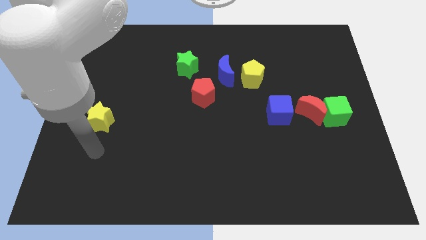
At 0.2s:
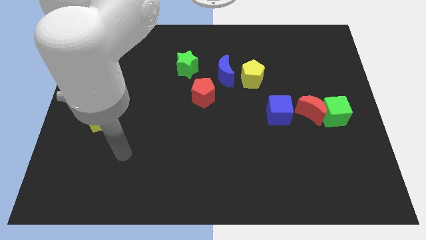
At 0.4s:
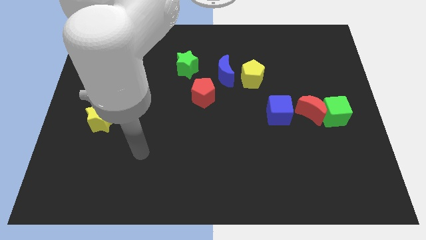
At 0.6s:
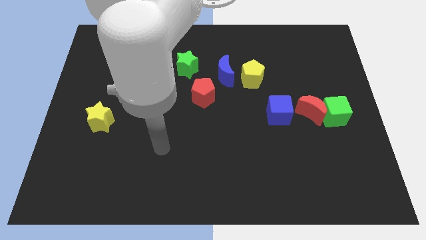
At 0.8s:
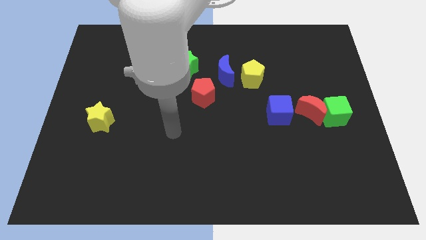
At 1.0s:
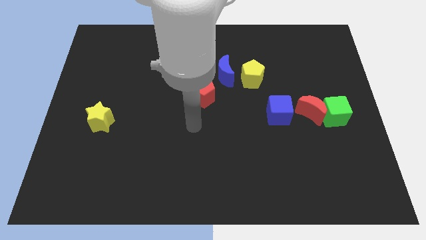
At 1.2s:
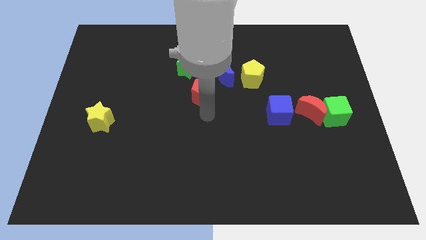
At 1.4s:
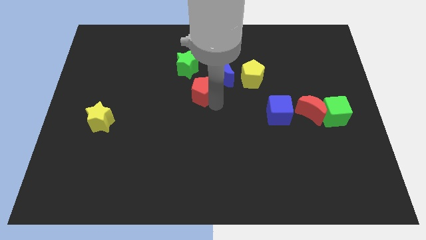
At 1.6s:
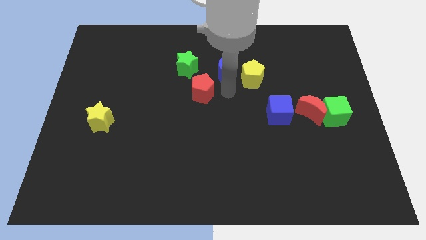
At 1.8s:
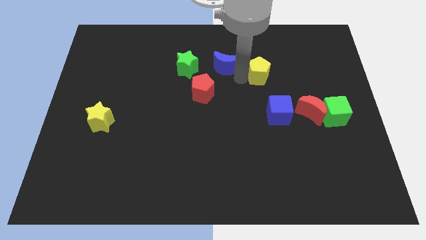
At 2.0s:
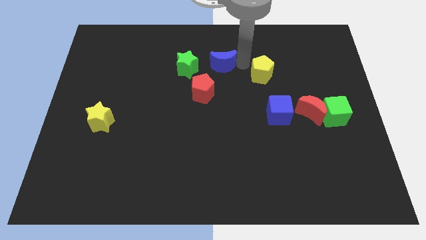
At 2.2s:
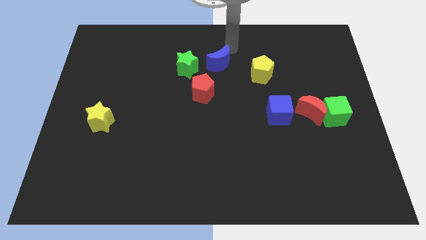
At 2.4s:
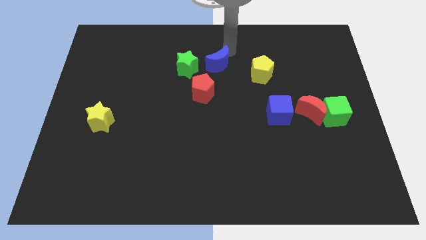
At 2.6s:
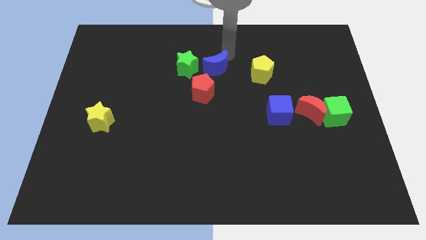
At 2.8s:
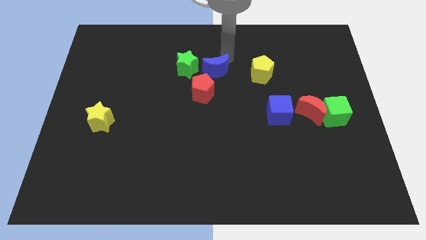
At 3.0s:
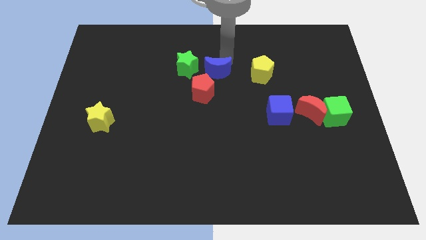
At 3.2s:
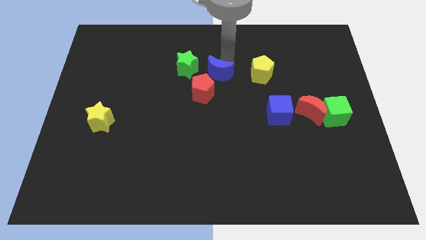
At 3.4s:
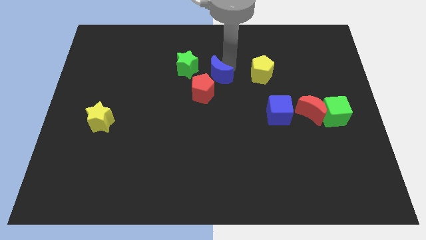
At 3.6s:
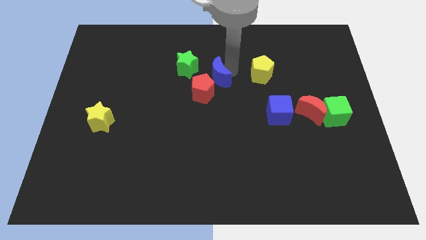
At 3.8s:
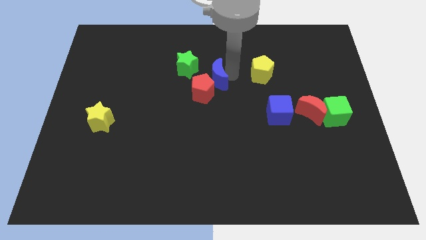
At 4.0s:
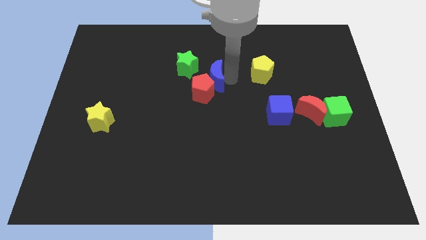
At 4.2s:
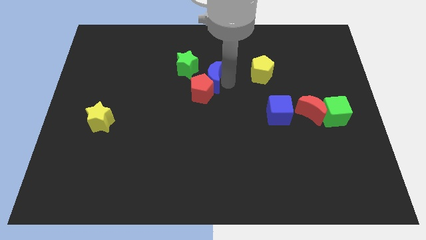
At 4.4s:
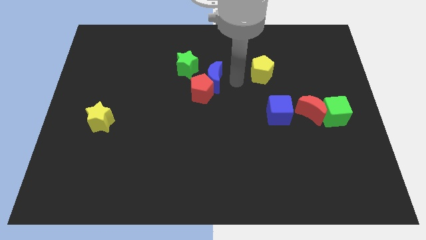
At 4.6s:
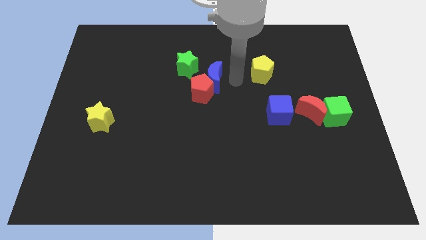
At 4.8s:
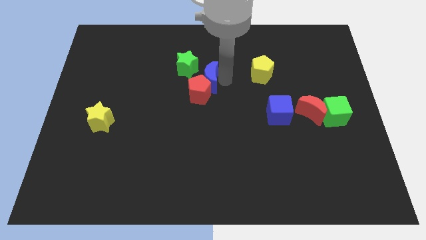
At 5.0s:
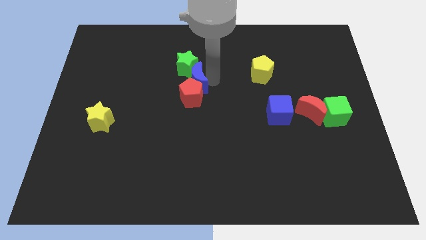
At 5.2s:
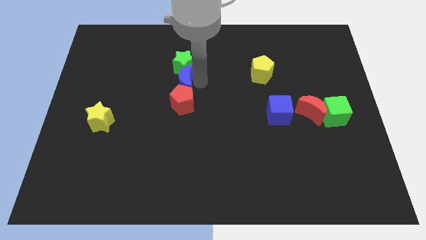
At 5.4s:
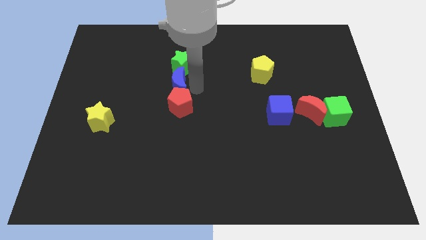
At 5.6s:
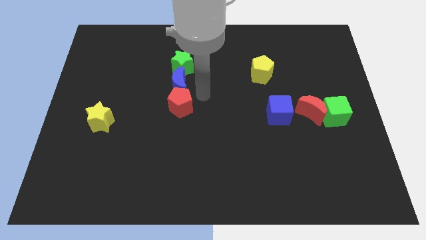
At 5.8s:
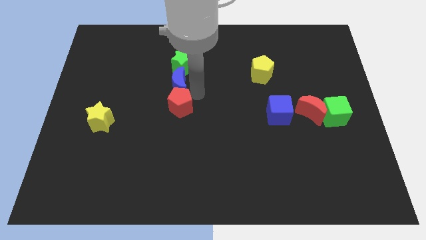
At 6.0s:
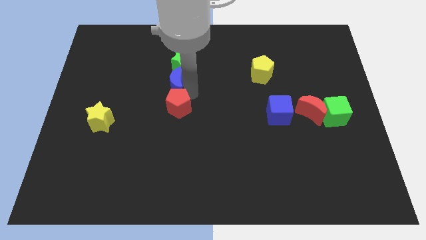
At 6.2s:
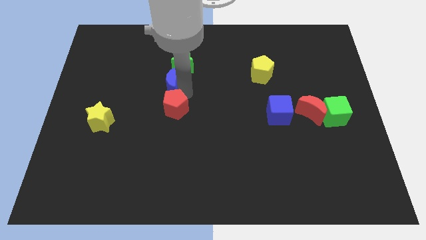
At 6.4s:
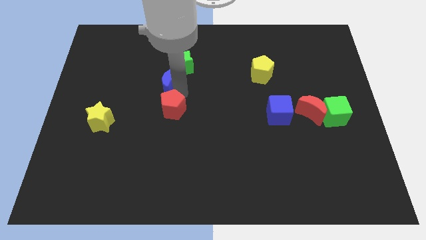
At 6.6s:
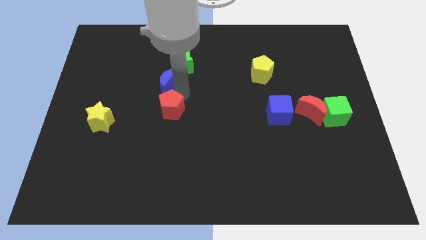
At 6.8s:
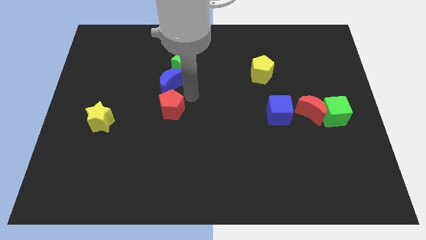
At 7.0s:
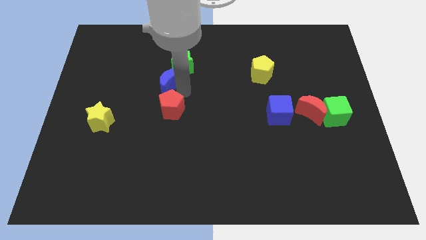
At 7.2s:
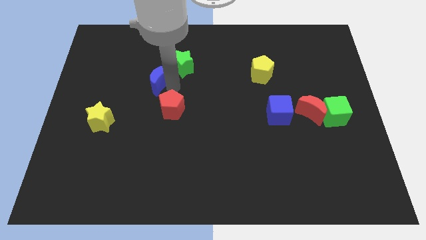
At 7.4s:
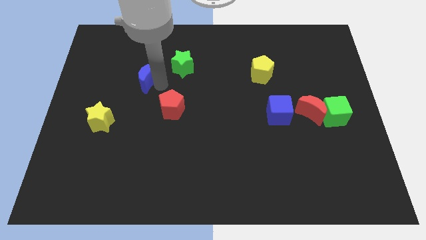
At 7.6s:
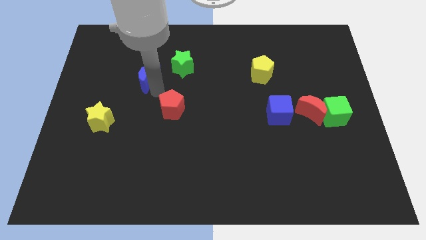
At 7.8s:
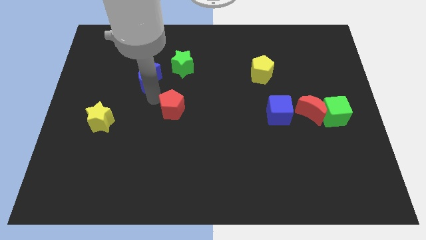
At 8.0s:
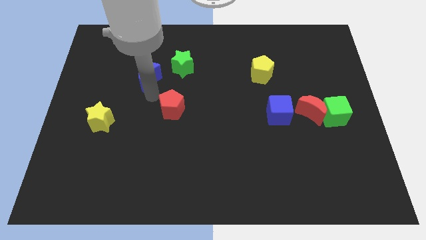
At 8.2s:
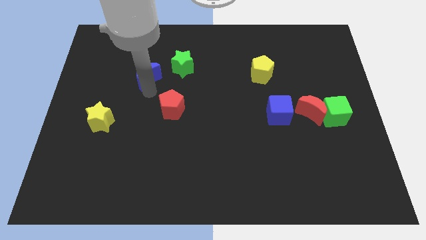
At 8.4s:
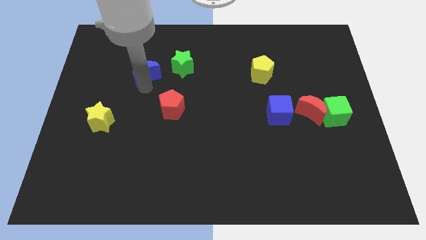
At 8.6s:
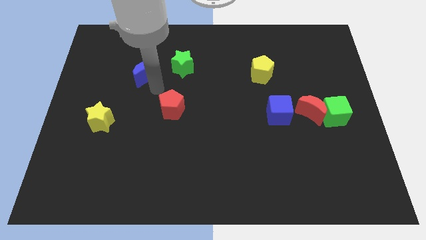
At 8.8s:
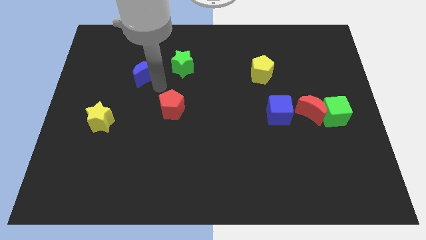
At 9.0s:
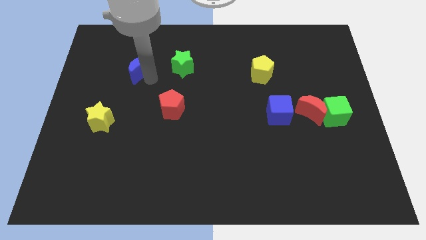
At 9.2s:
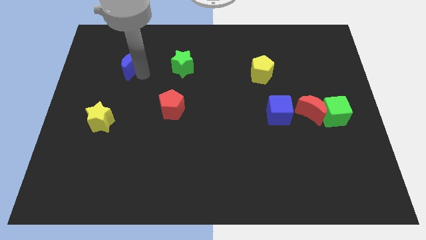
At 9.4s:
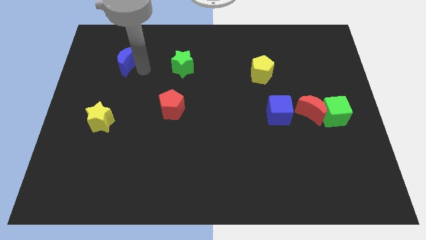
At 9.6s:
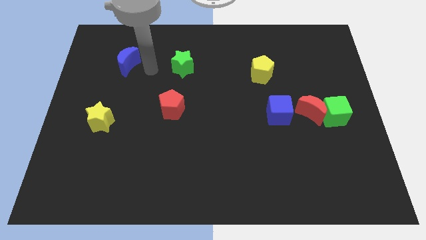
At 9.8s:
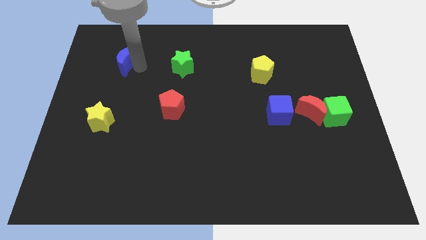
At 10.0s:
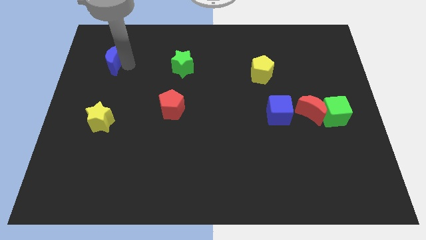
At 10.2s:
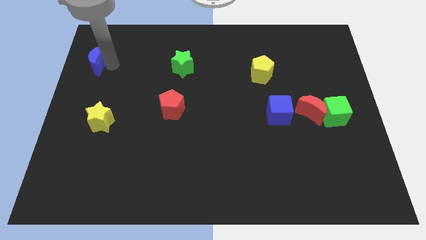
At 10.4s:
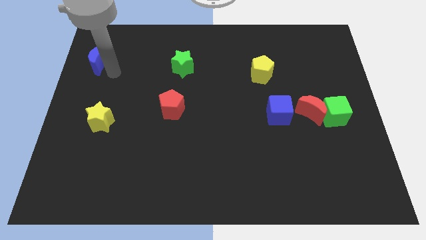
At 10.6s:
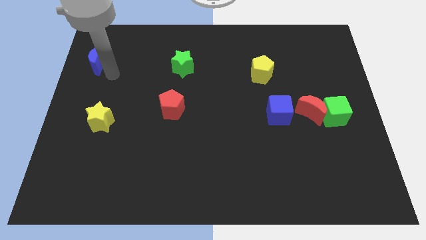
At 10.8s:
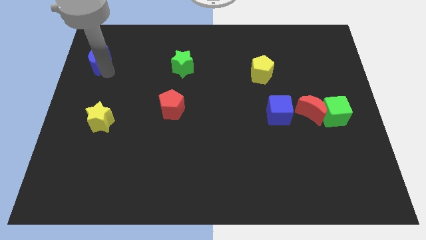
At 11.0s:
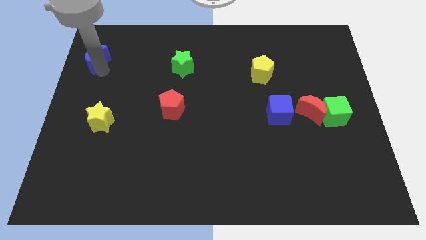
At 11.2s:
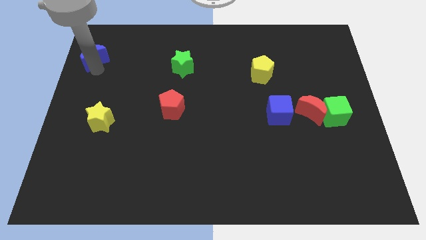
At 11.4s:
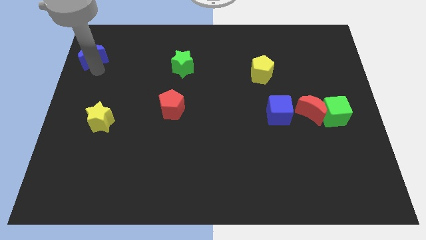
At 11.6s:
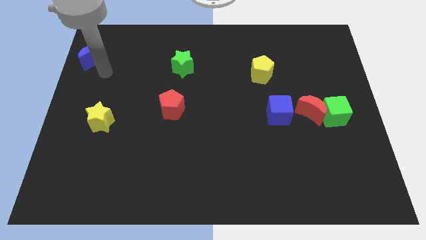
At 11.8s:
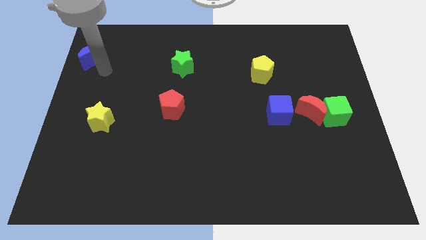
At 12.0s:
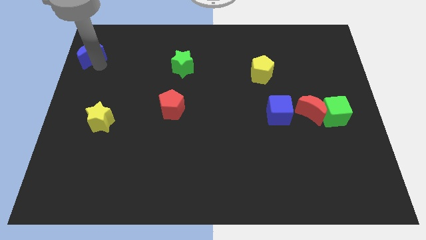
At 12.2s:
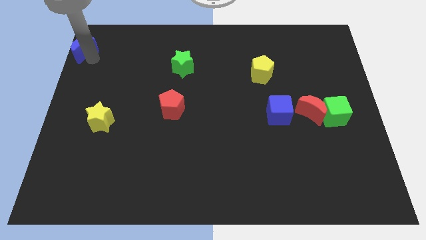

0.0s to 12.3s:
push the blue moon to the upper left corner
